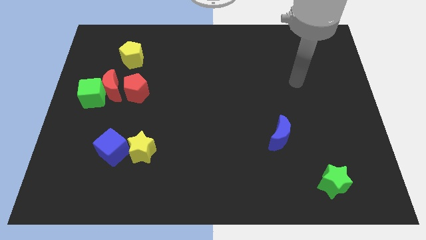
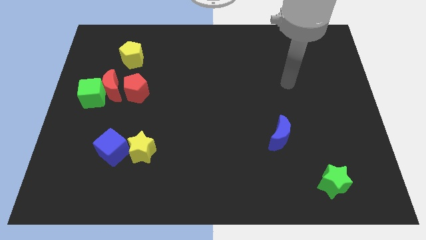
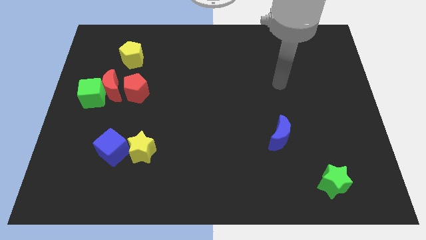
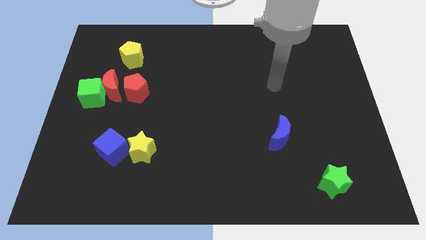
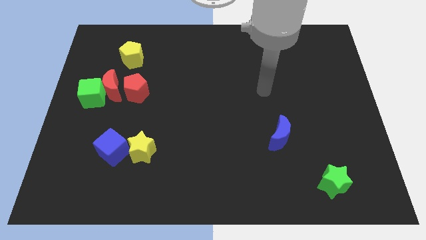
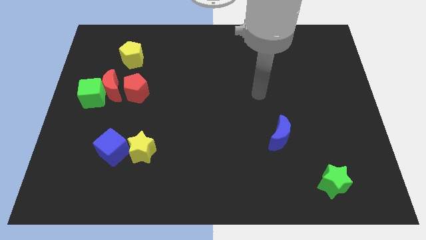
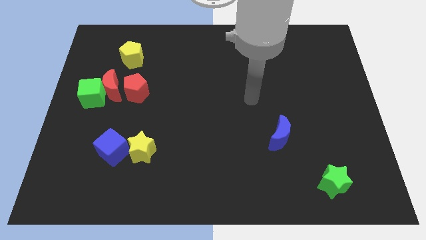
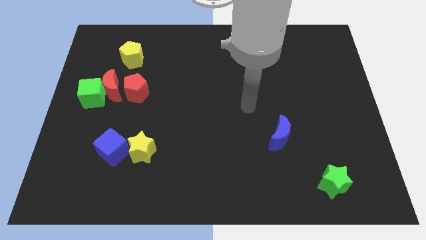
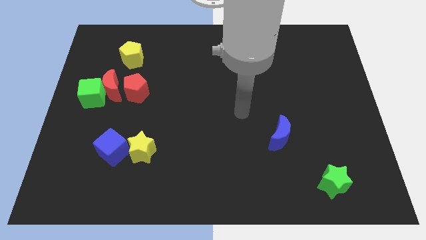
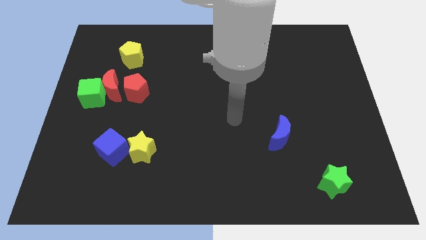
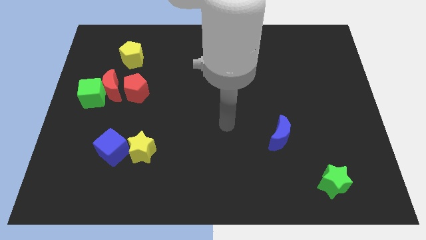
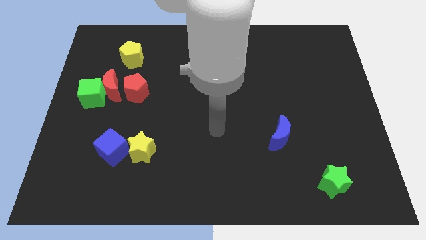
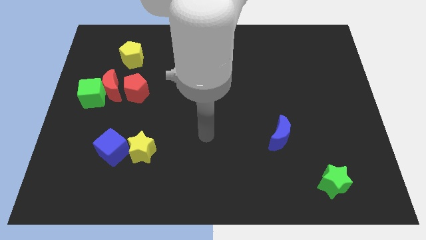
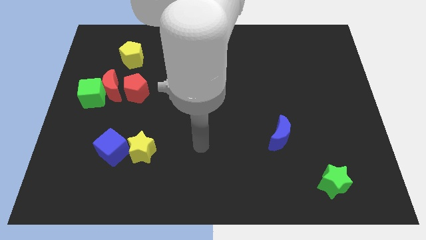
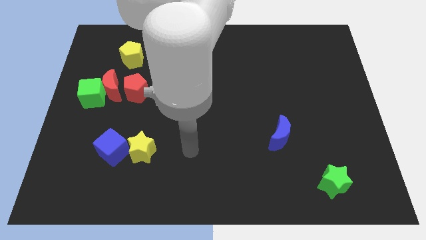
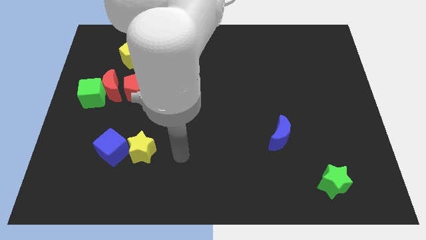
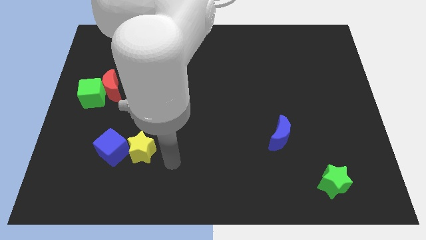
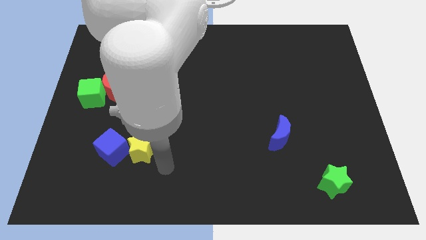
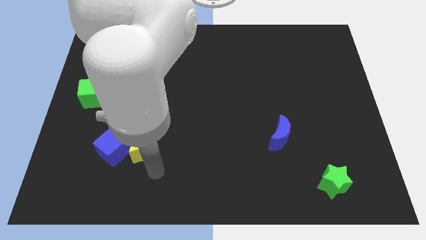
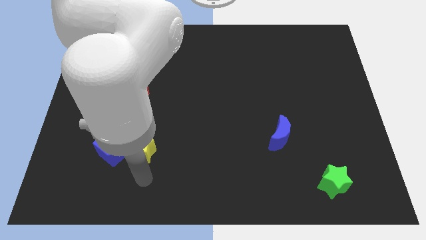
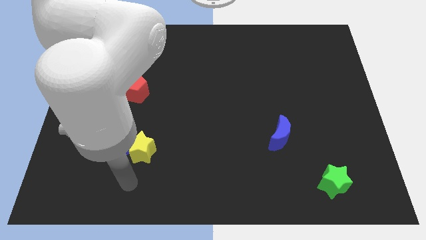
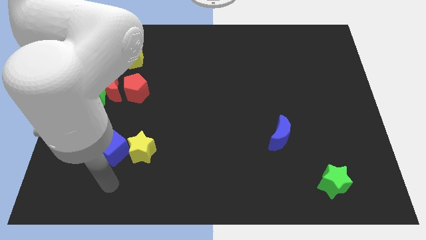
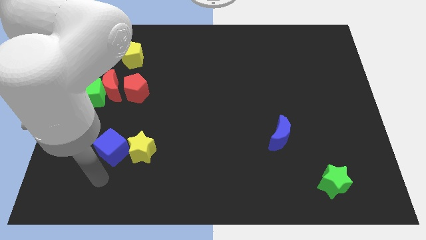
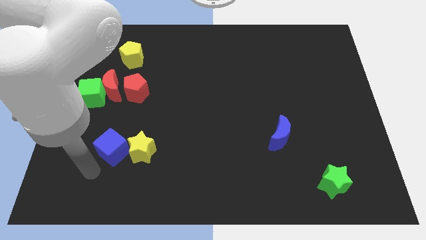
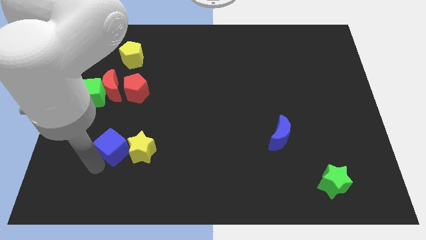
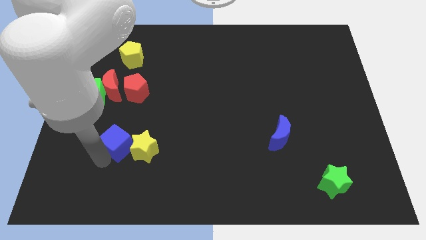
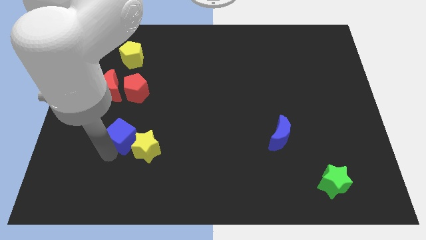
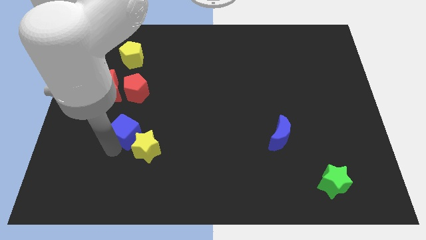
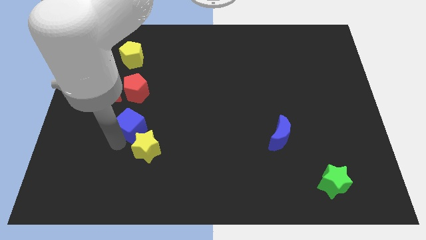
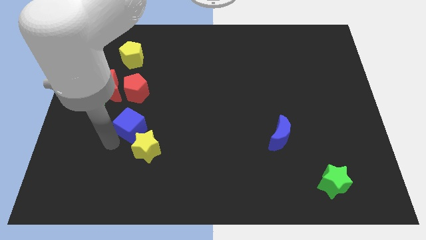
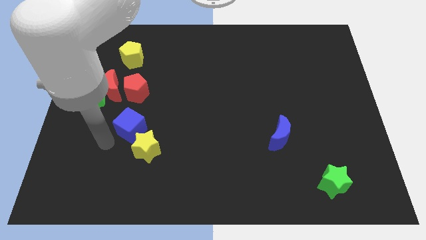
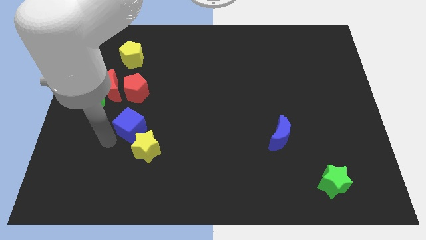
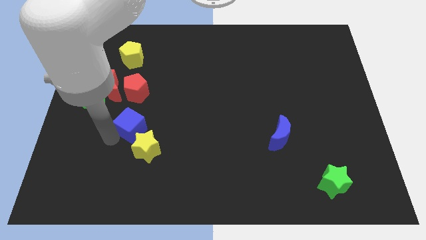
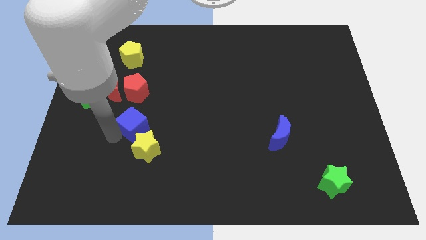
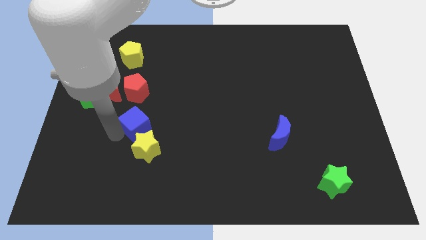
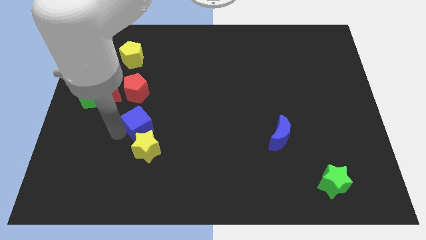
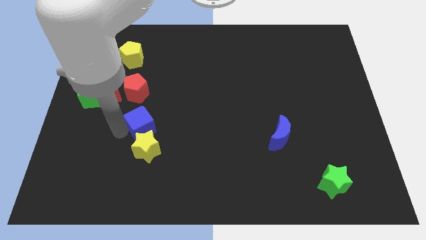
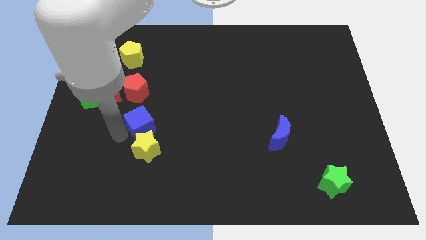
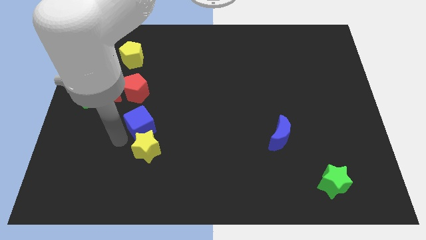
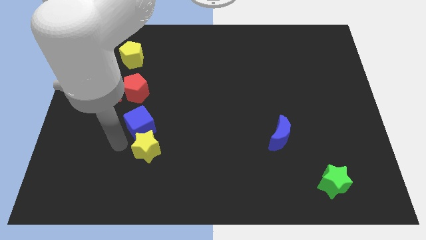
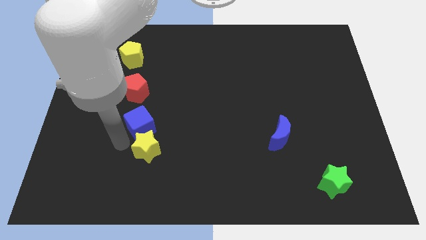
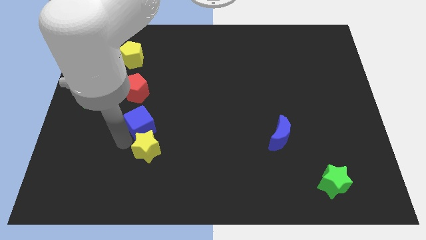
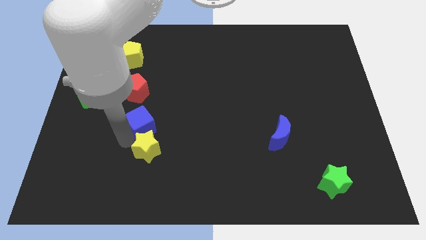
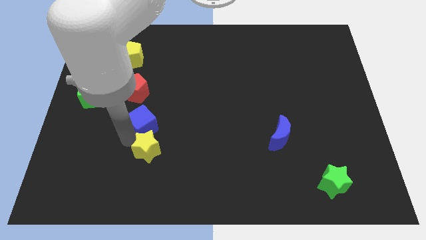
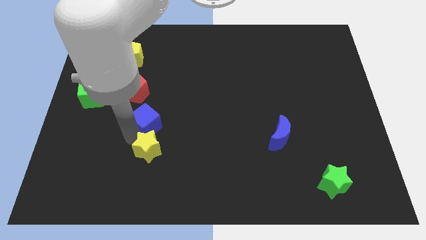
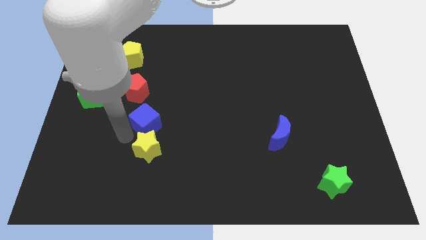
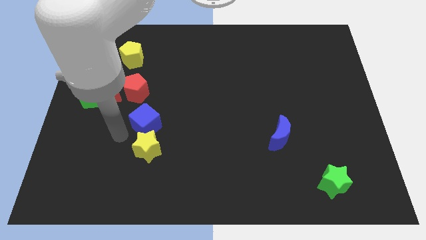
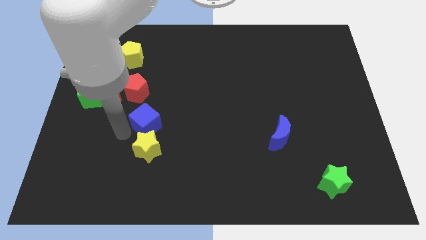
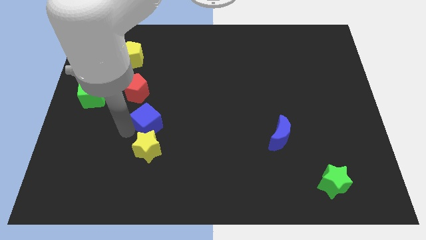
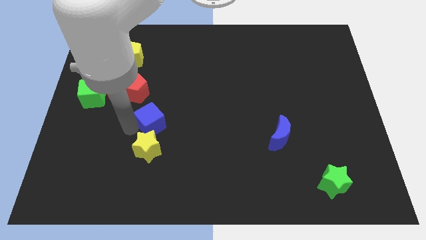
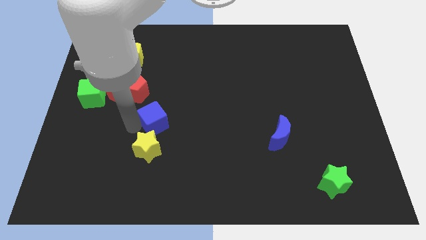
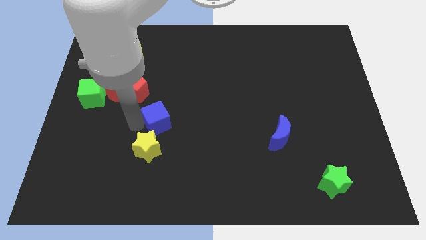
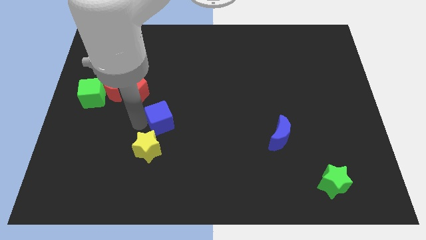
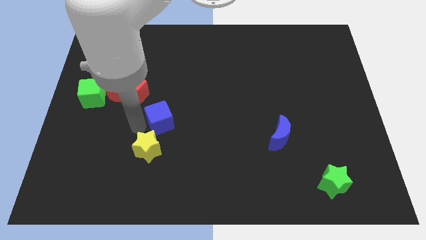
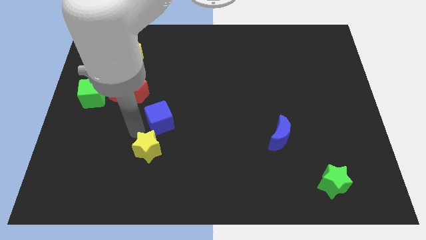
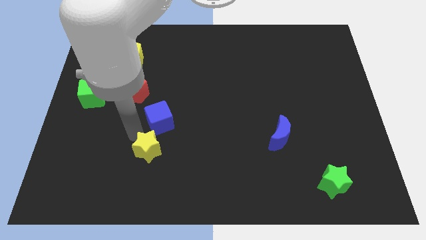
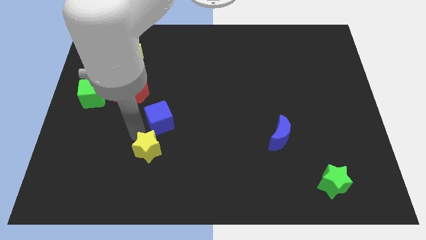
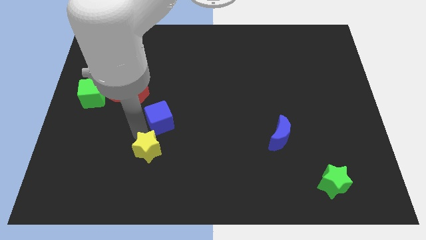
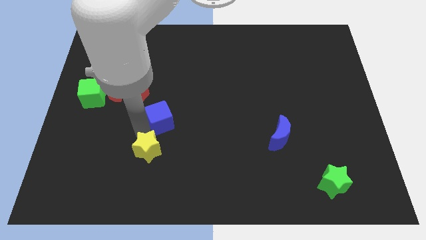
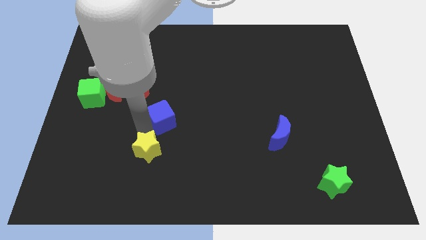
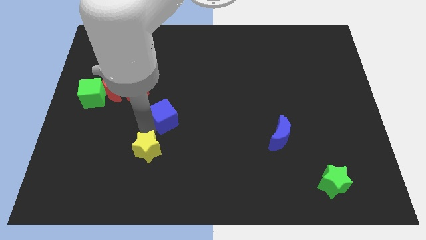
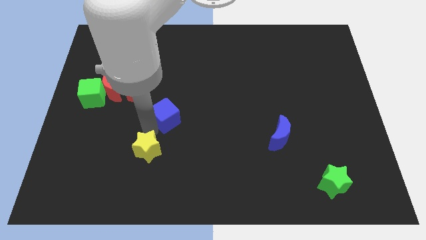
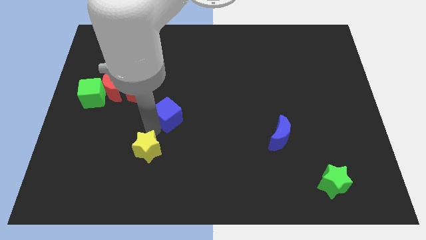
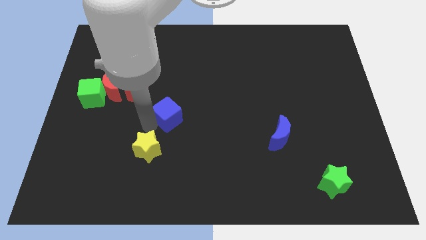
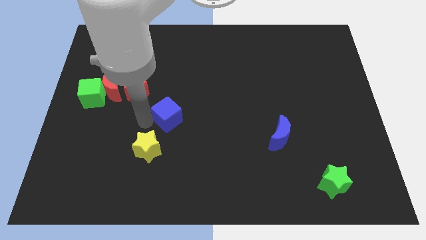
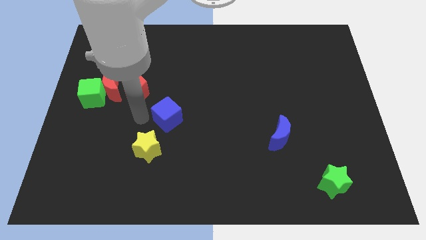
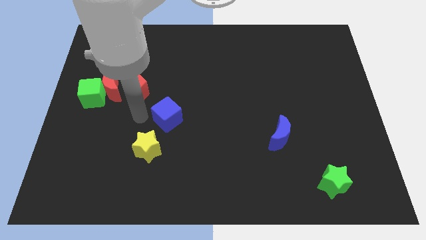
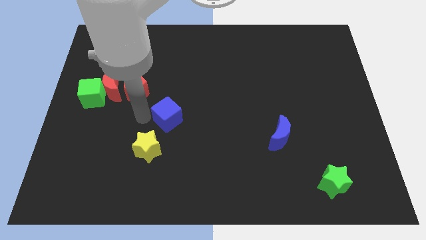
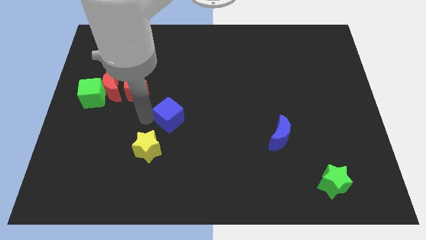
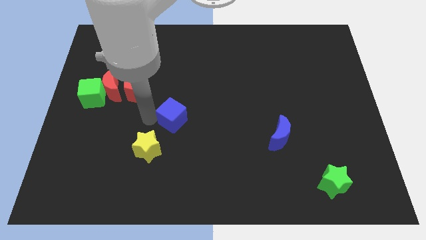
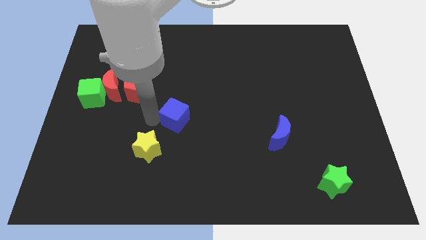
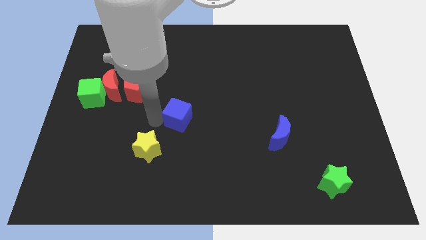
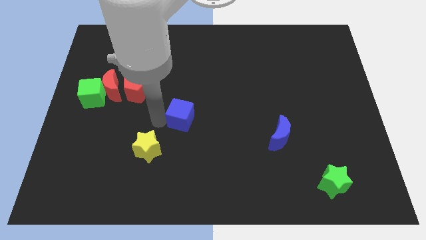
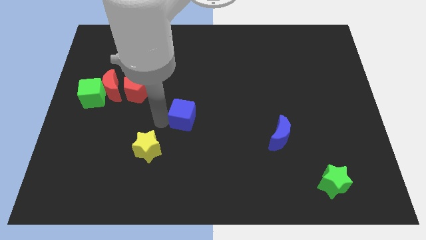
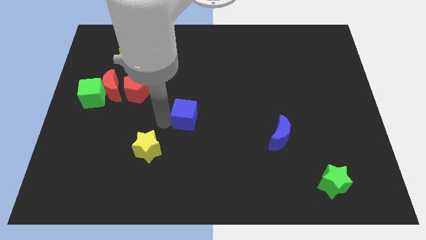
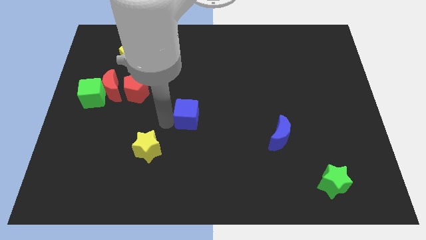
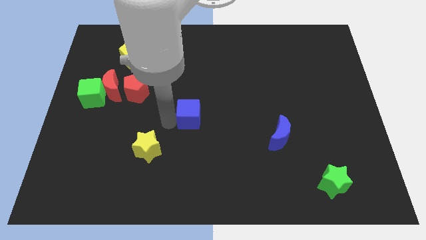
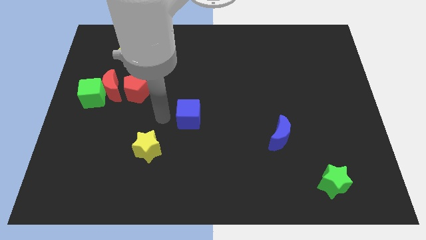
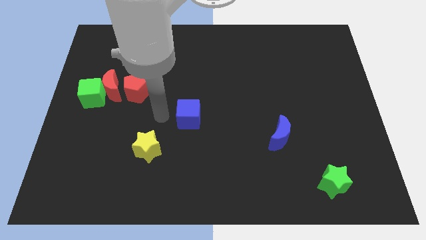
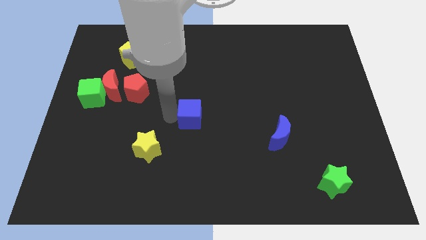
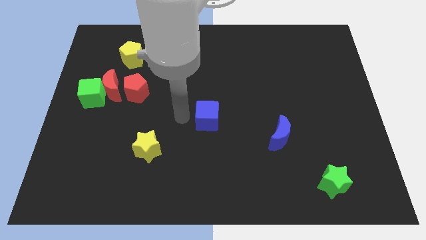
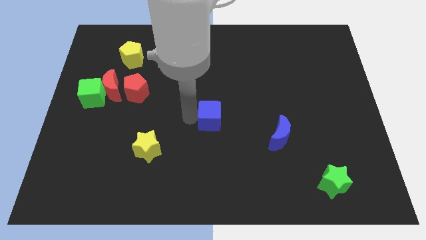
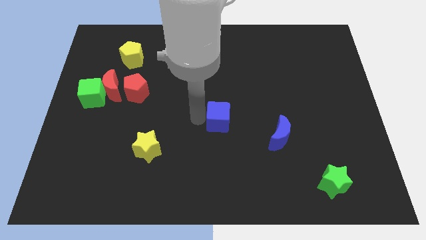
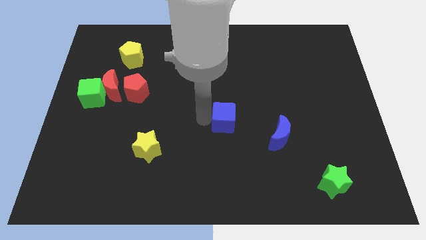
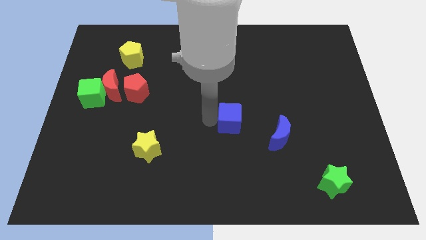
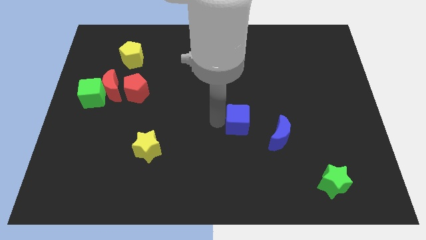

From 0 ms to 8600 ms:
put the blue cube to the top left of the blue moon
